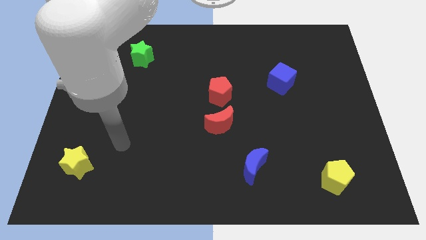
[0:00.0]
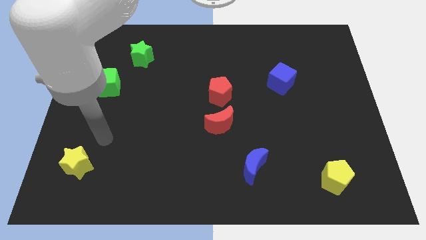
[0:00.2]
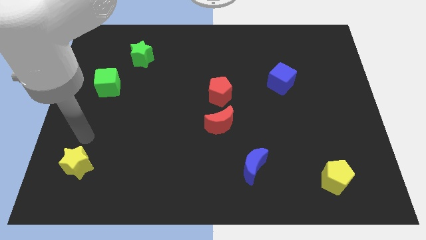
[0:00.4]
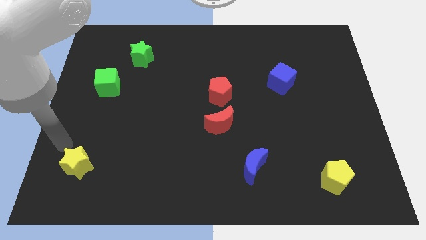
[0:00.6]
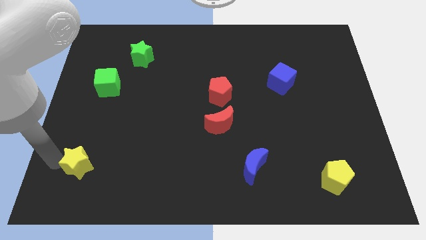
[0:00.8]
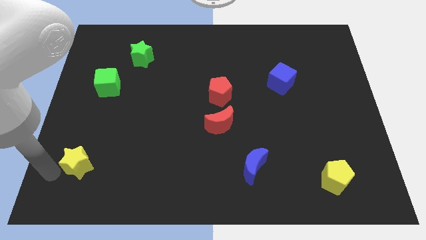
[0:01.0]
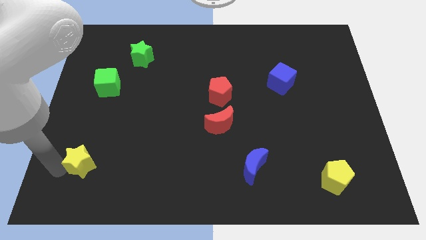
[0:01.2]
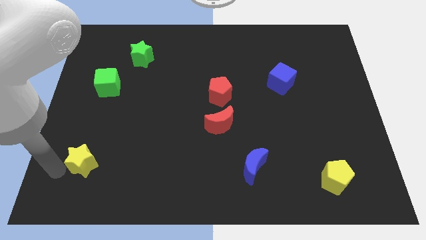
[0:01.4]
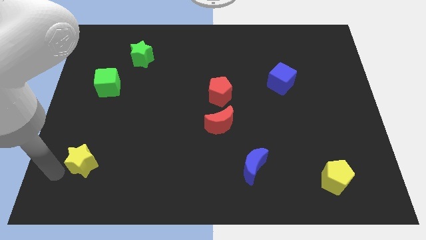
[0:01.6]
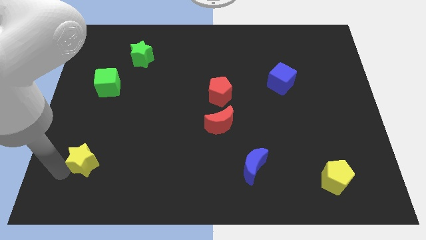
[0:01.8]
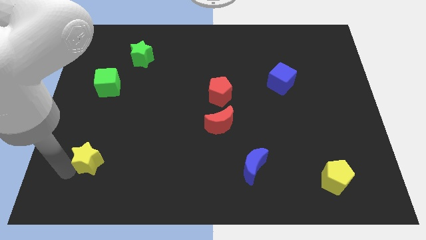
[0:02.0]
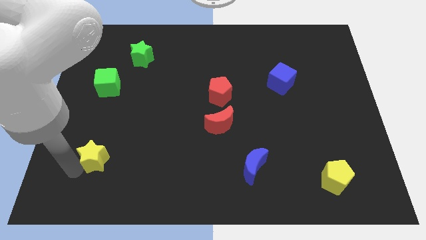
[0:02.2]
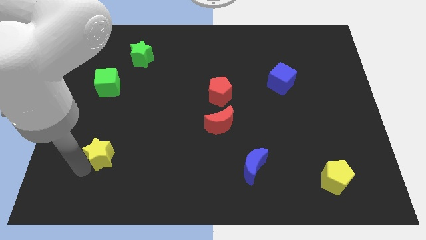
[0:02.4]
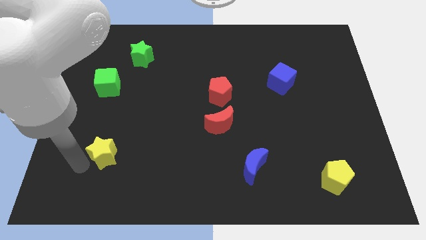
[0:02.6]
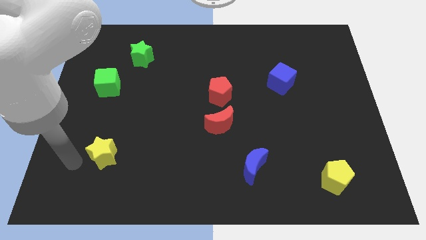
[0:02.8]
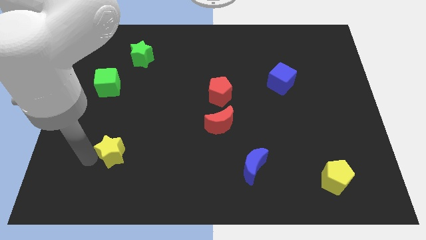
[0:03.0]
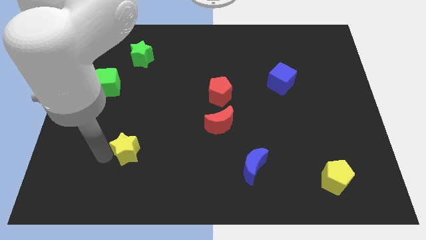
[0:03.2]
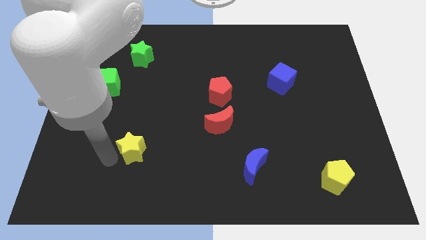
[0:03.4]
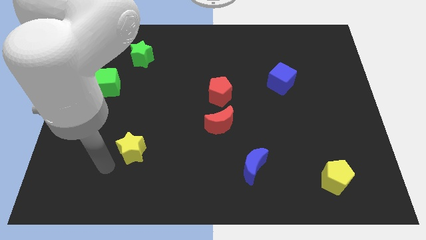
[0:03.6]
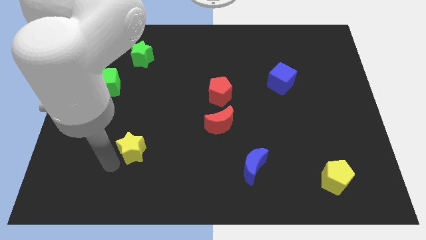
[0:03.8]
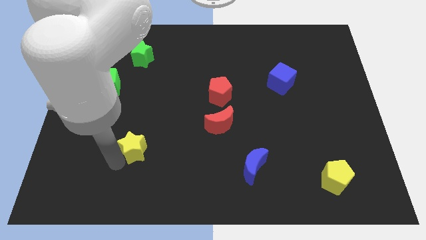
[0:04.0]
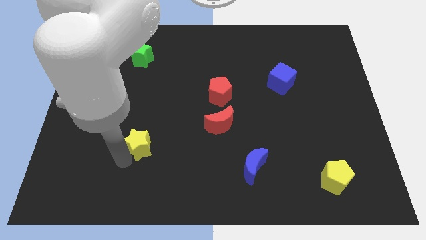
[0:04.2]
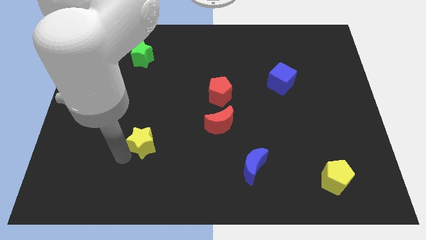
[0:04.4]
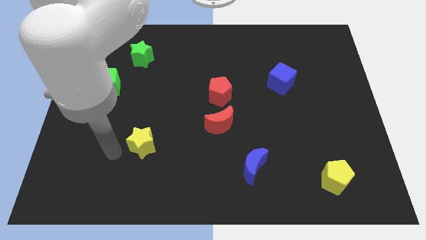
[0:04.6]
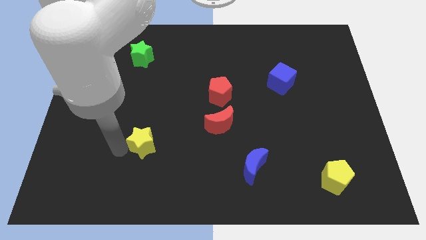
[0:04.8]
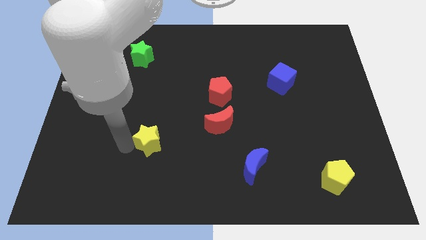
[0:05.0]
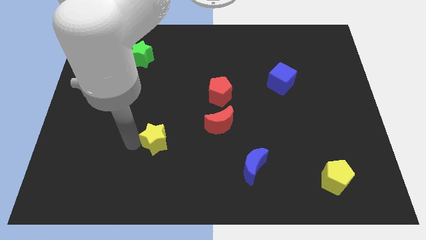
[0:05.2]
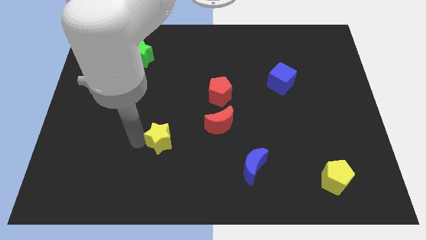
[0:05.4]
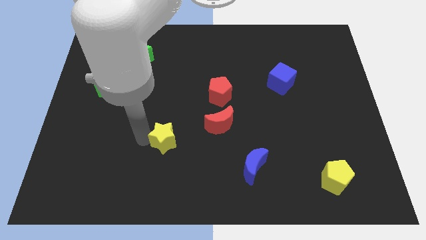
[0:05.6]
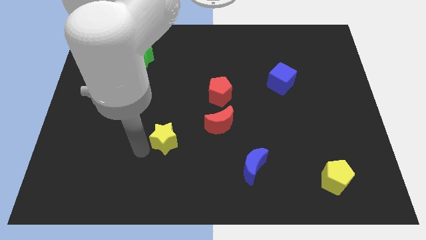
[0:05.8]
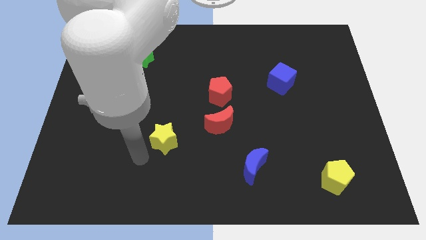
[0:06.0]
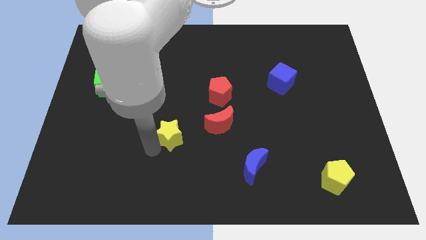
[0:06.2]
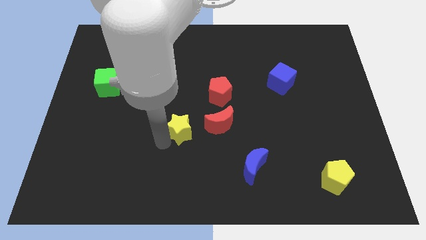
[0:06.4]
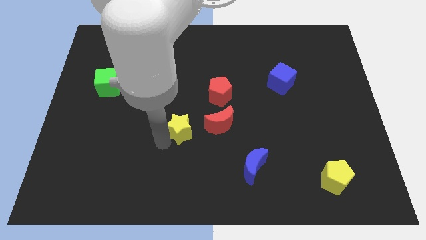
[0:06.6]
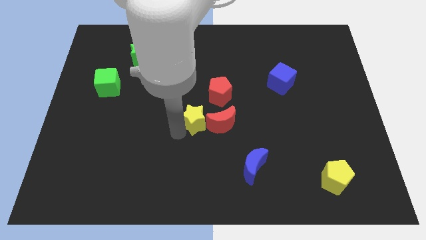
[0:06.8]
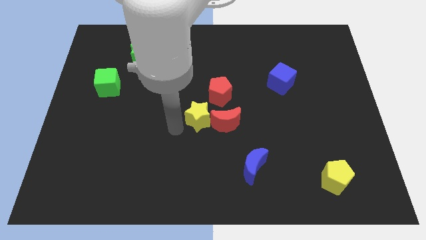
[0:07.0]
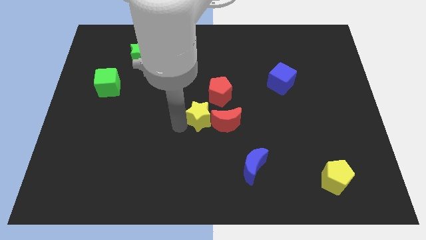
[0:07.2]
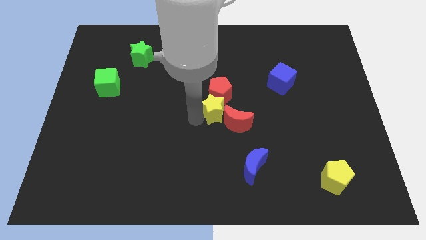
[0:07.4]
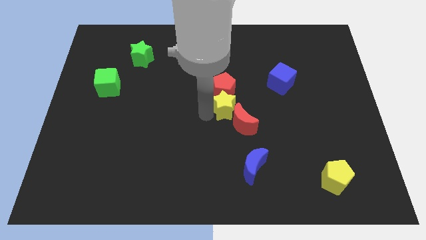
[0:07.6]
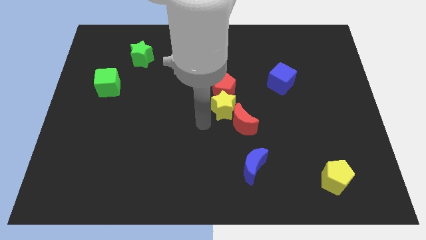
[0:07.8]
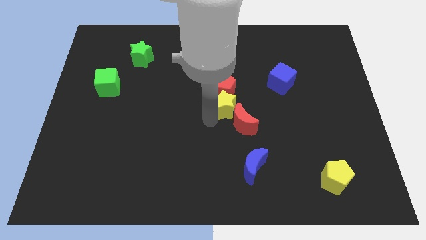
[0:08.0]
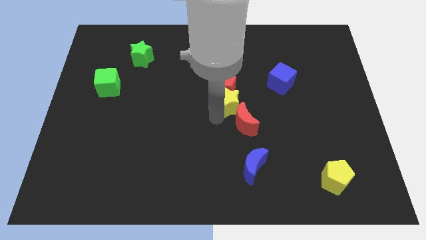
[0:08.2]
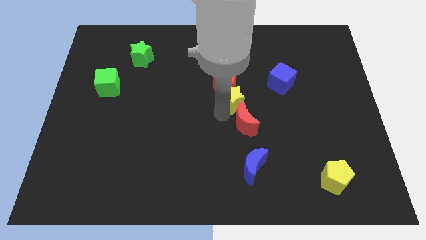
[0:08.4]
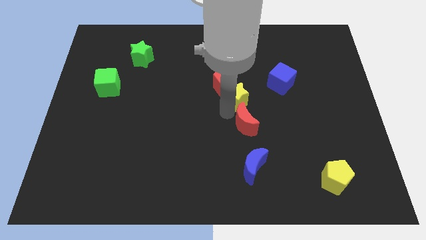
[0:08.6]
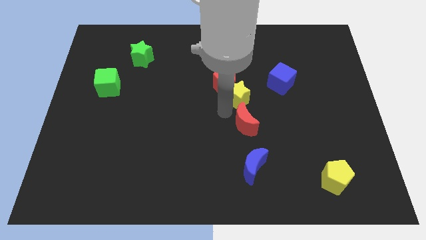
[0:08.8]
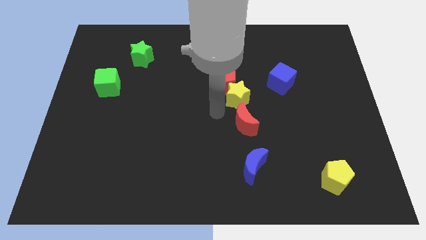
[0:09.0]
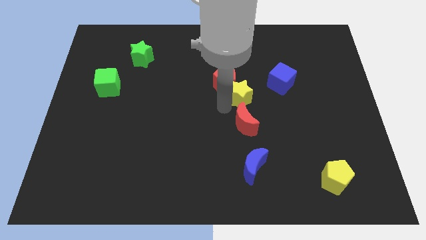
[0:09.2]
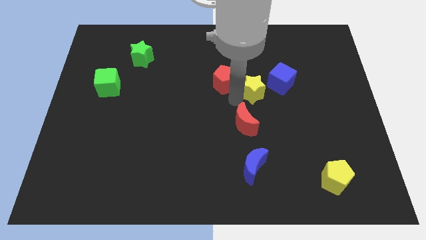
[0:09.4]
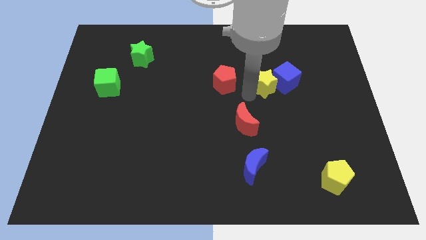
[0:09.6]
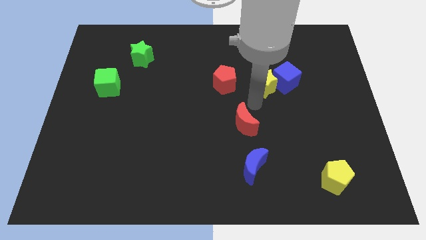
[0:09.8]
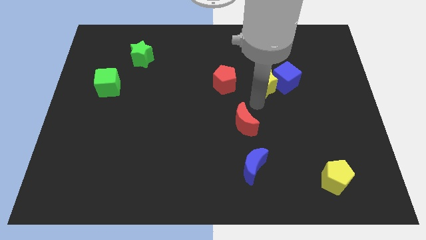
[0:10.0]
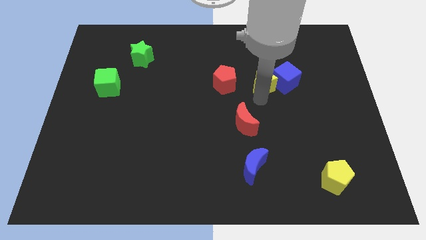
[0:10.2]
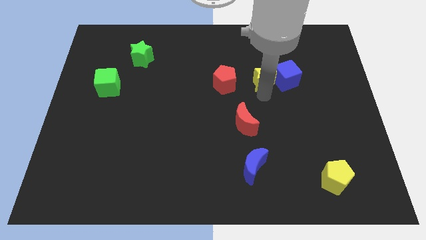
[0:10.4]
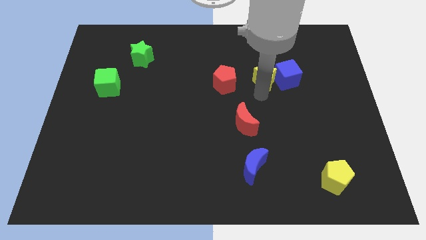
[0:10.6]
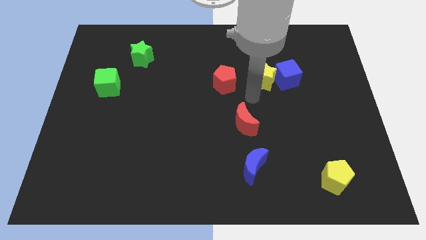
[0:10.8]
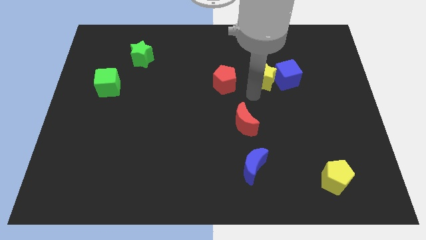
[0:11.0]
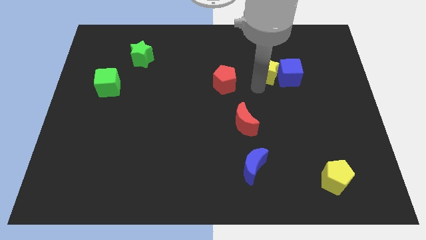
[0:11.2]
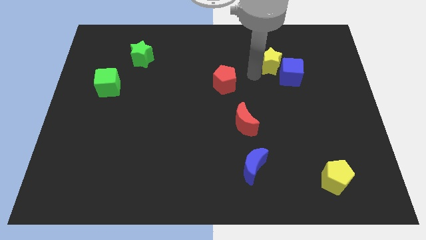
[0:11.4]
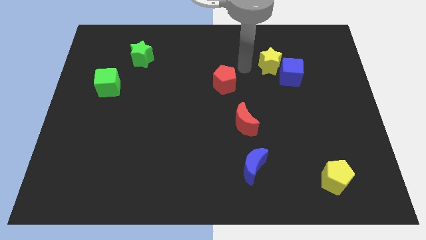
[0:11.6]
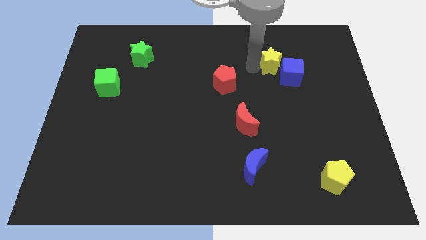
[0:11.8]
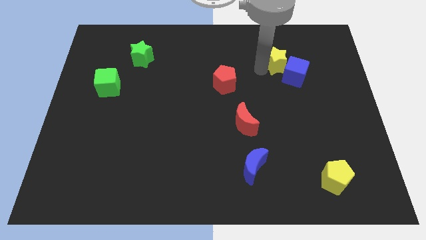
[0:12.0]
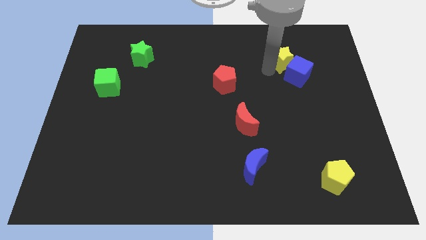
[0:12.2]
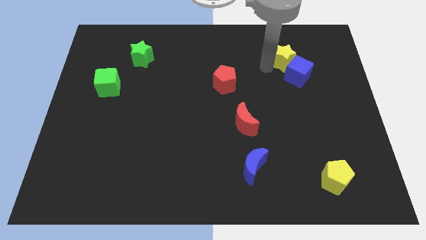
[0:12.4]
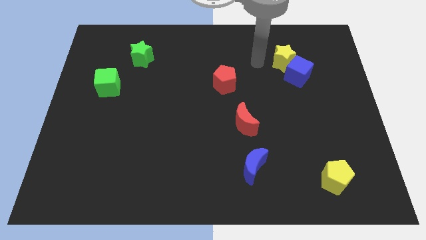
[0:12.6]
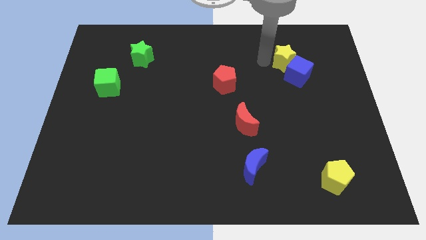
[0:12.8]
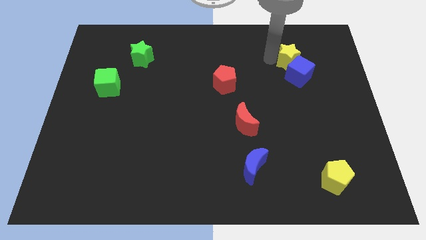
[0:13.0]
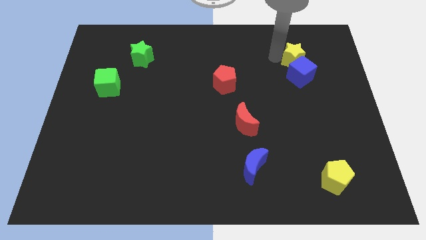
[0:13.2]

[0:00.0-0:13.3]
slide the yellow star diagonally up and to the right of the blue cube

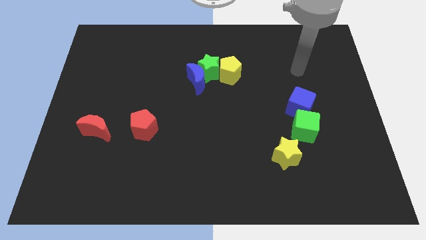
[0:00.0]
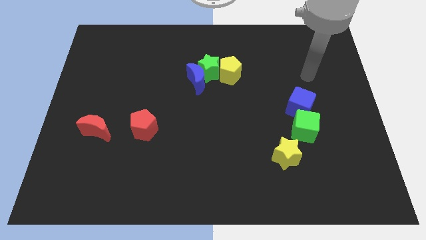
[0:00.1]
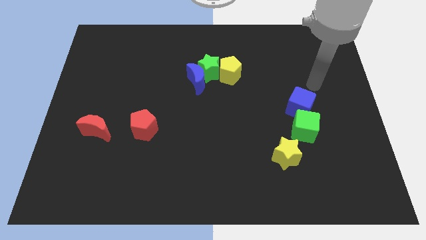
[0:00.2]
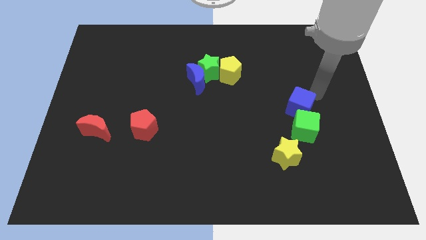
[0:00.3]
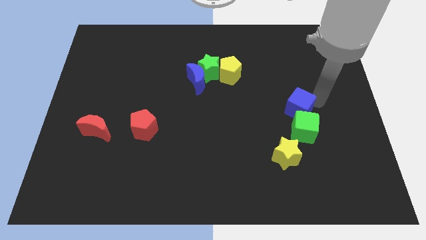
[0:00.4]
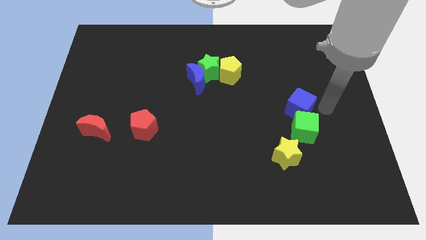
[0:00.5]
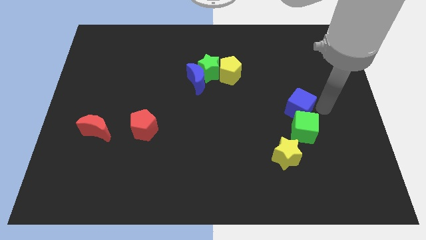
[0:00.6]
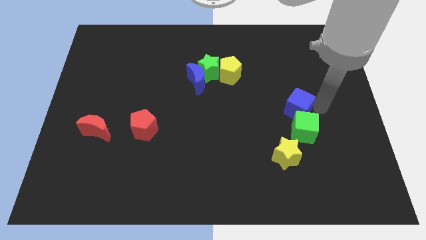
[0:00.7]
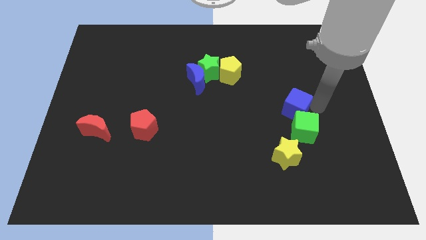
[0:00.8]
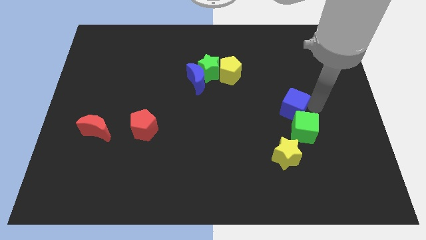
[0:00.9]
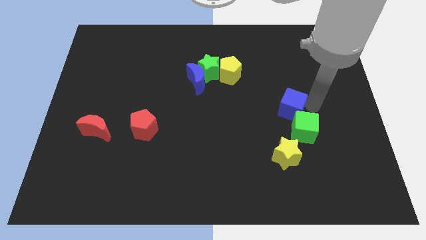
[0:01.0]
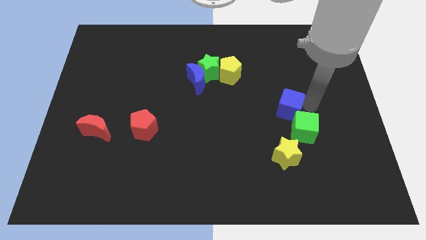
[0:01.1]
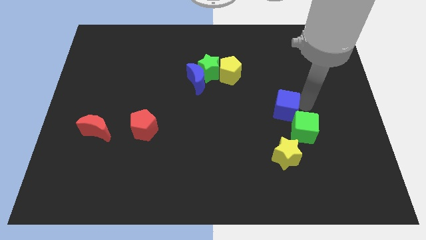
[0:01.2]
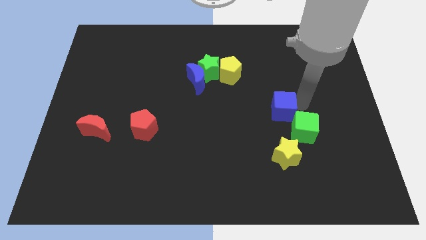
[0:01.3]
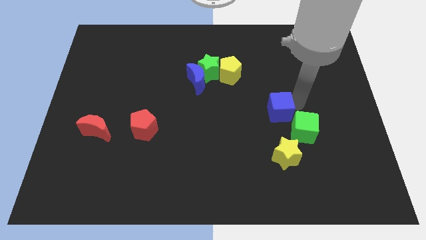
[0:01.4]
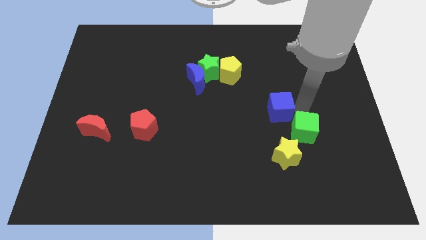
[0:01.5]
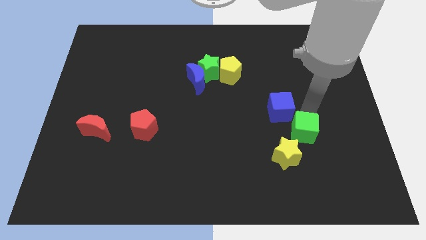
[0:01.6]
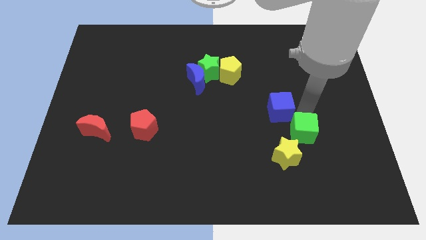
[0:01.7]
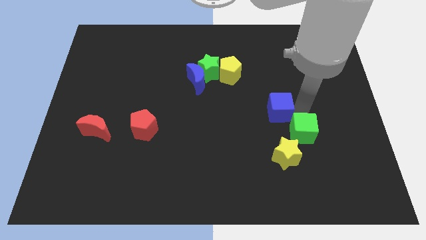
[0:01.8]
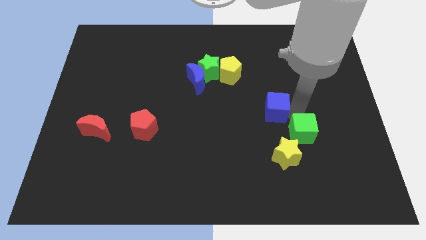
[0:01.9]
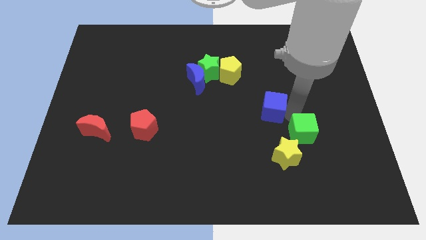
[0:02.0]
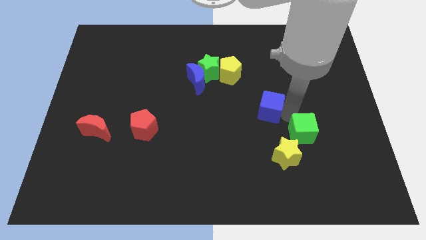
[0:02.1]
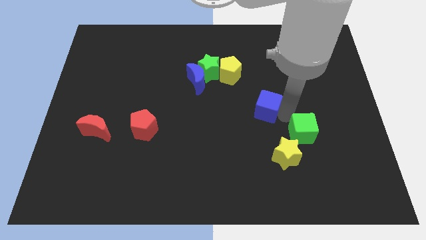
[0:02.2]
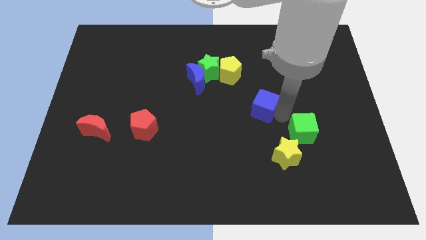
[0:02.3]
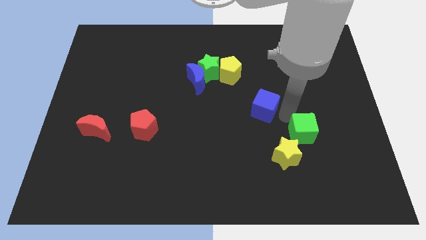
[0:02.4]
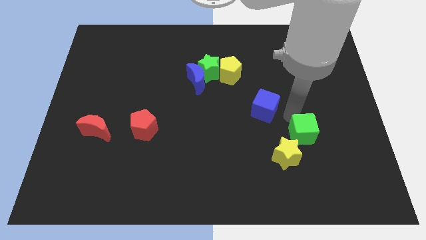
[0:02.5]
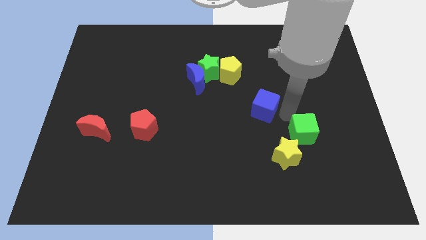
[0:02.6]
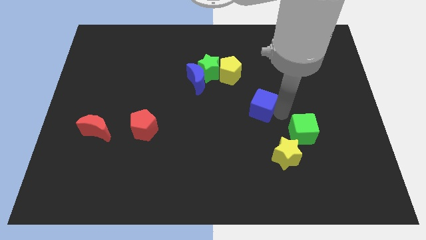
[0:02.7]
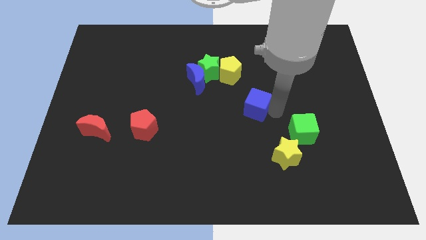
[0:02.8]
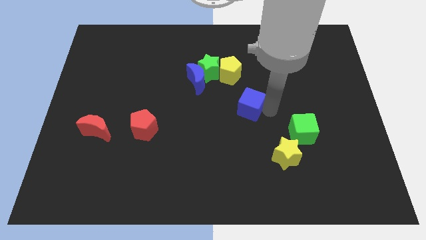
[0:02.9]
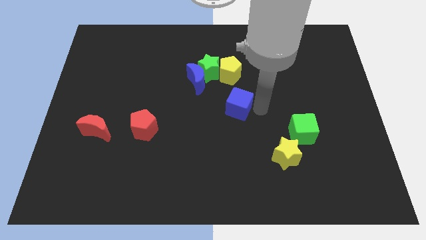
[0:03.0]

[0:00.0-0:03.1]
push the blue cube to the bottom right of the blue moon
